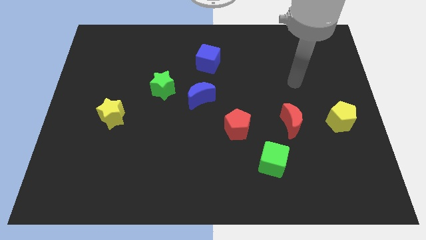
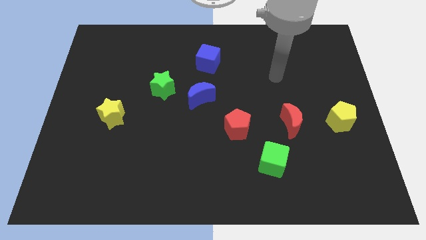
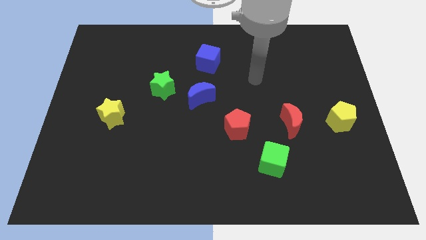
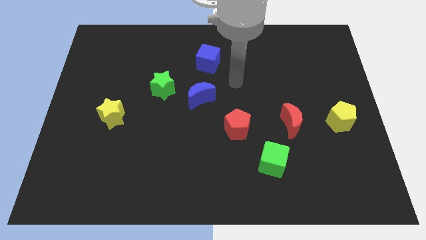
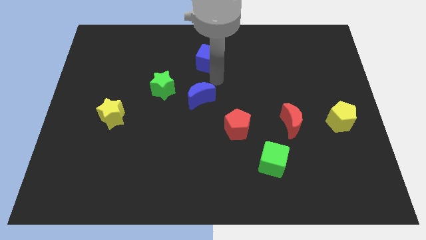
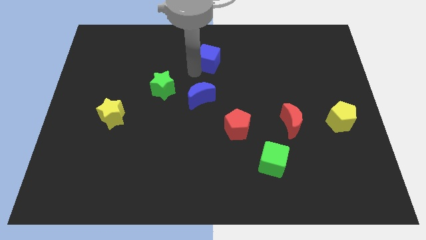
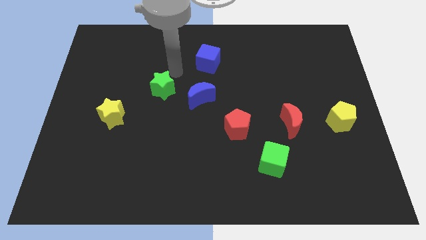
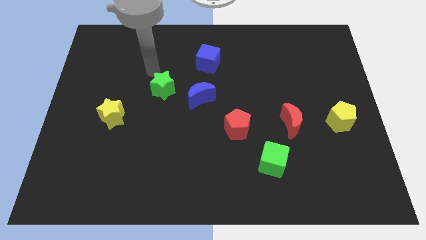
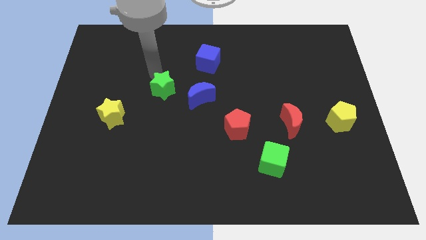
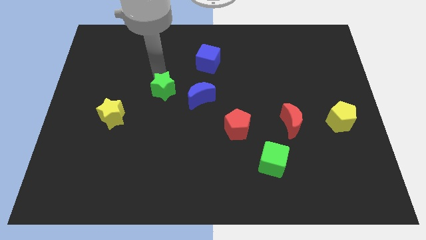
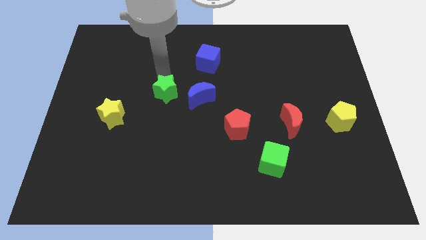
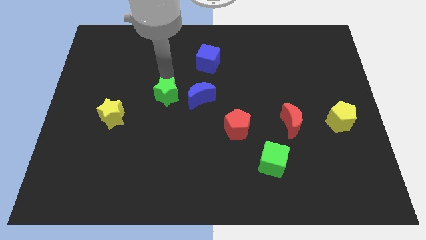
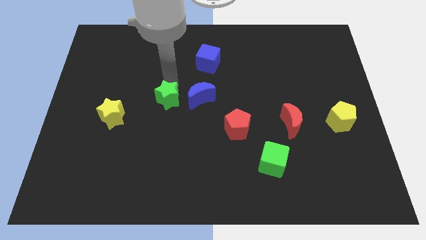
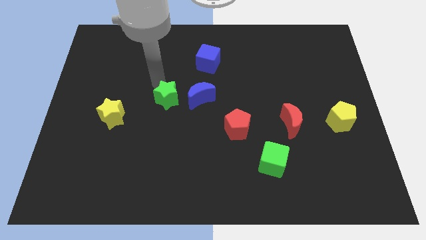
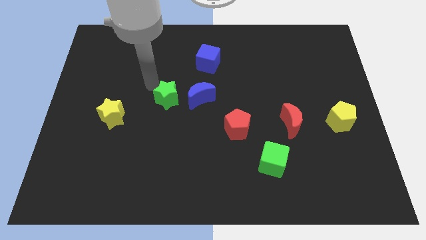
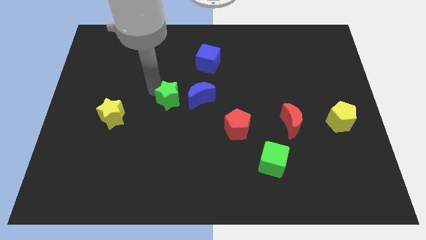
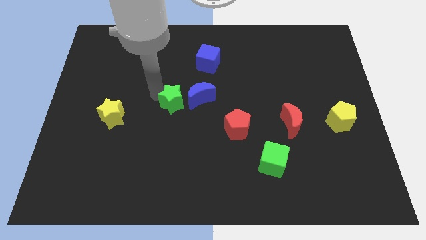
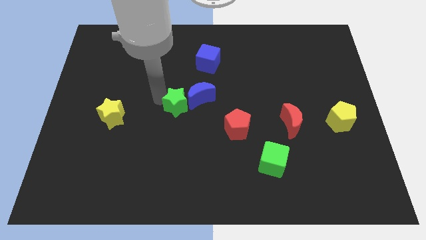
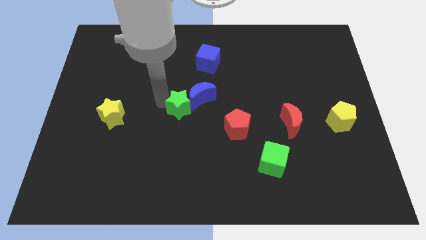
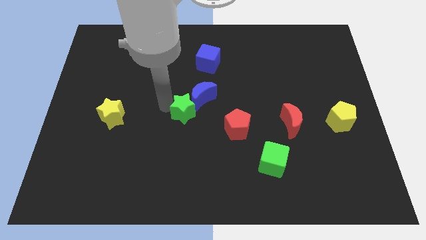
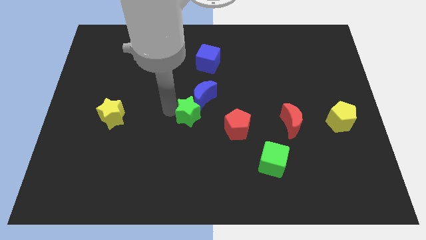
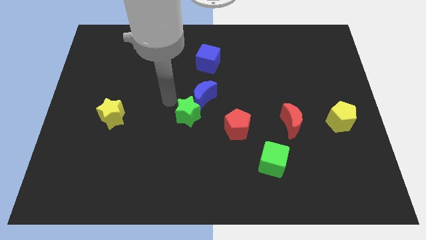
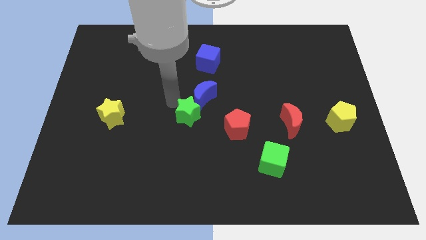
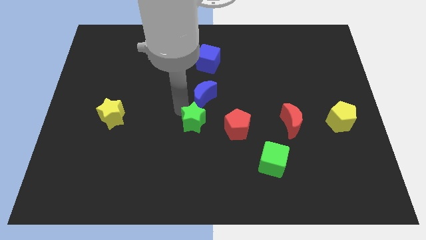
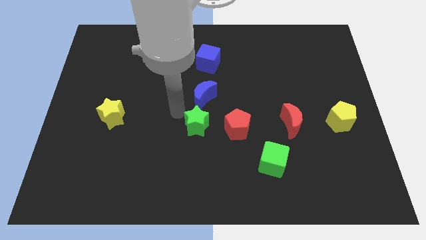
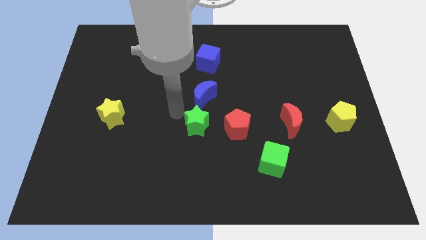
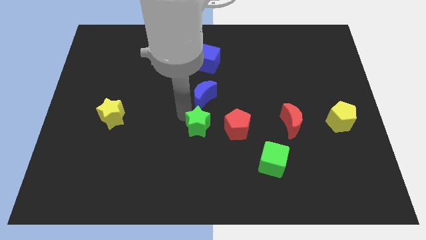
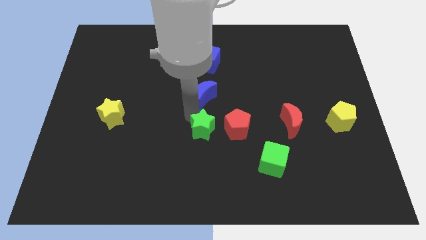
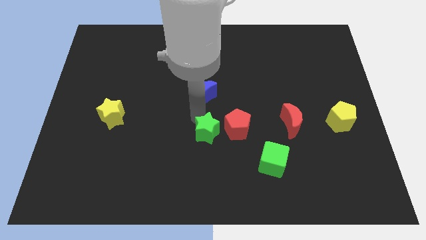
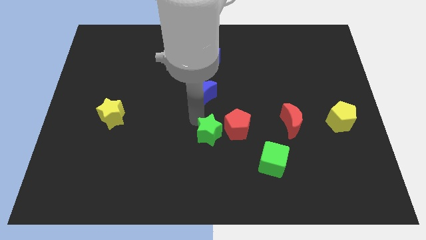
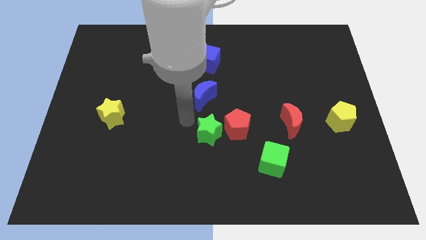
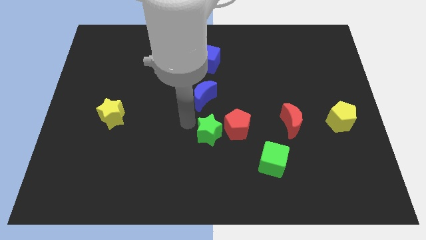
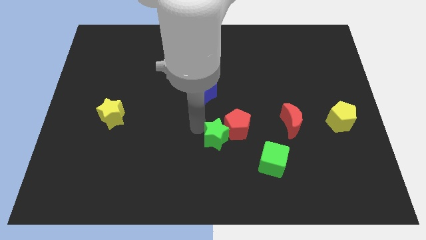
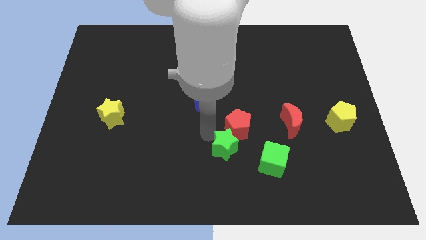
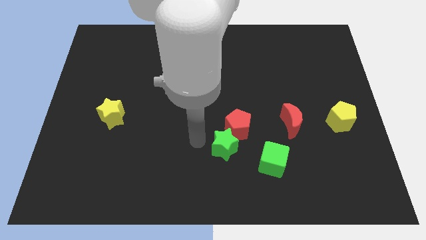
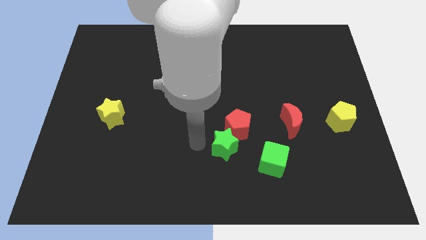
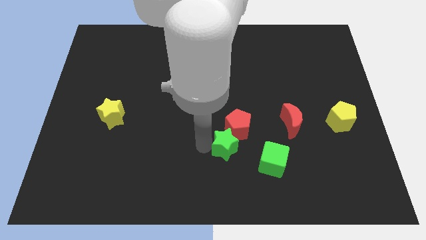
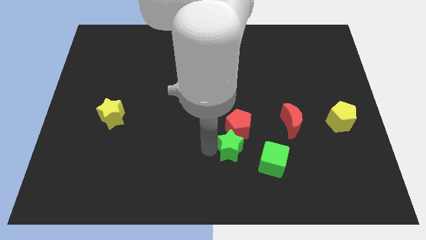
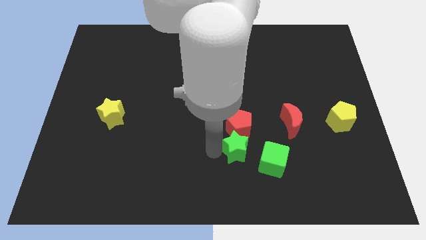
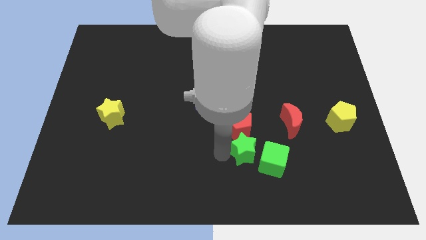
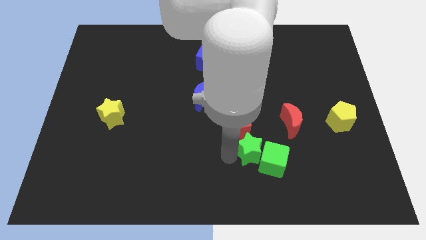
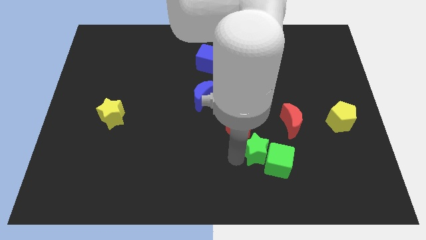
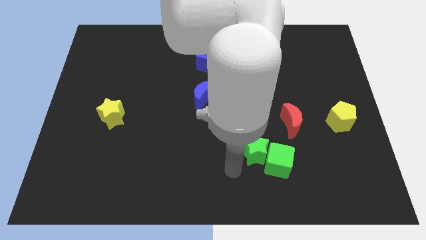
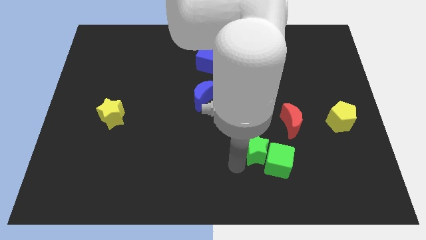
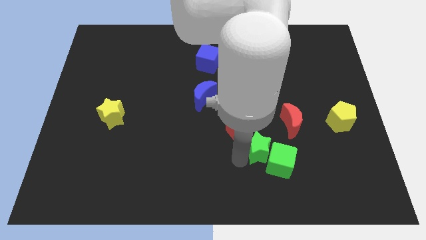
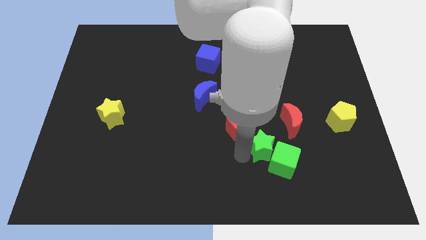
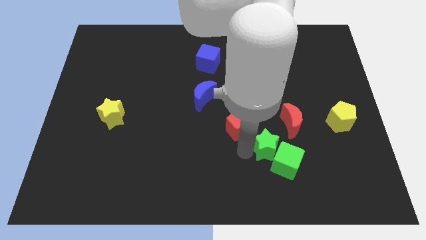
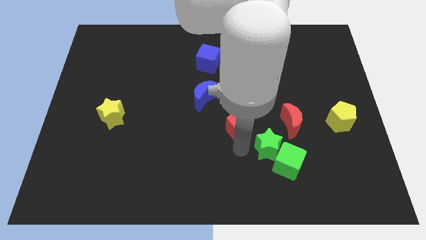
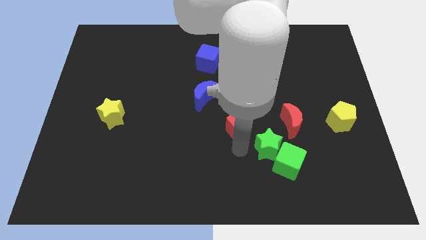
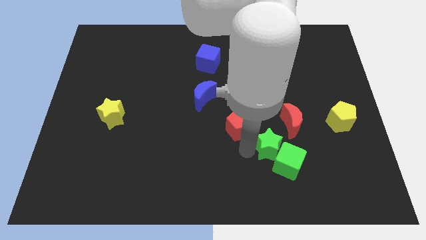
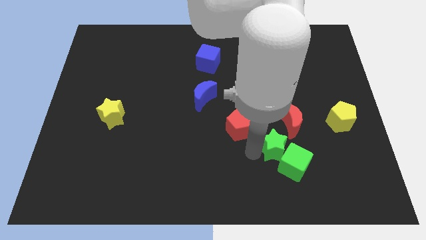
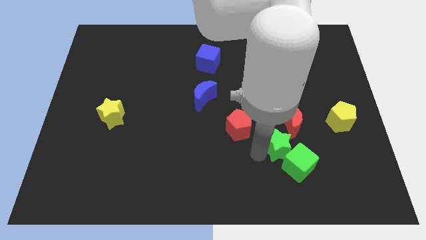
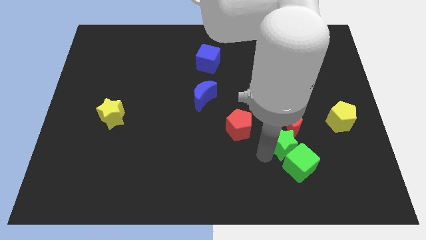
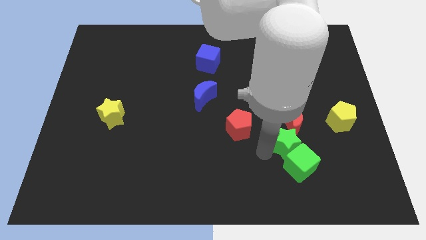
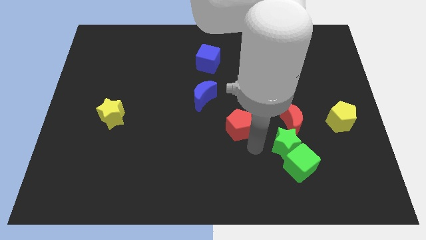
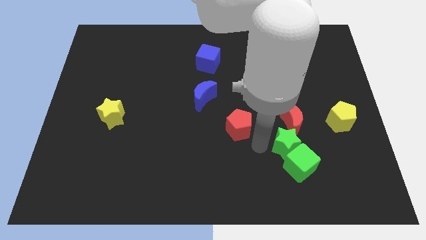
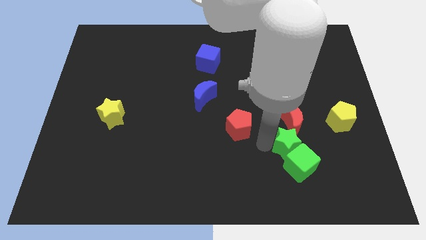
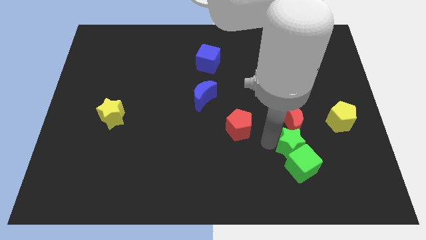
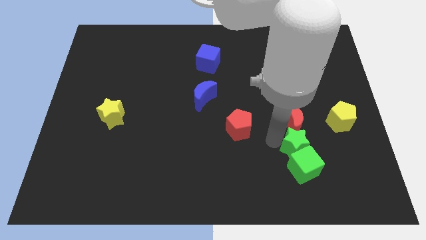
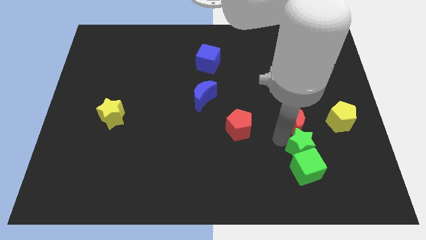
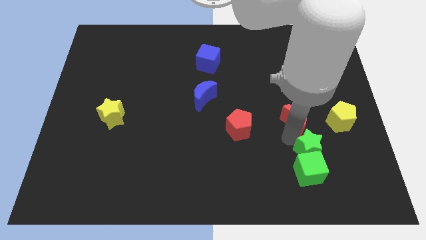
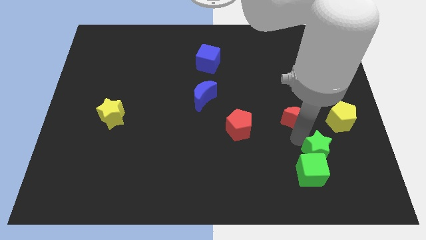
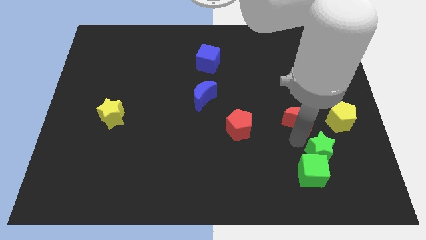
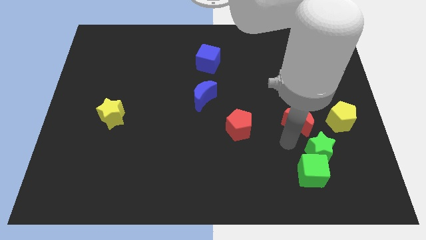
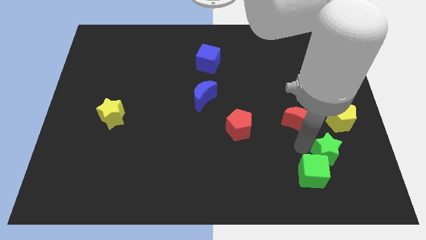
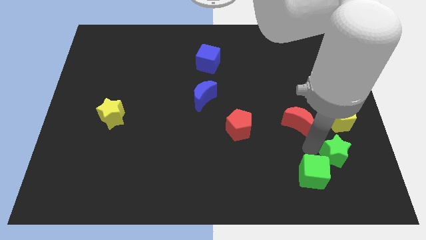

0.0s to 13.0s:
move the green star to the bottom of the yellow pentagon
